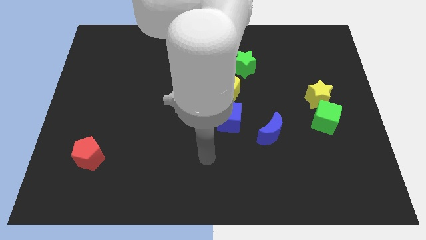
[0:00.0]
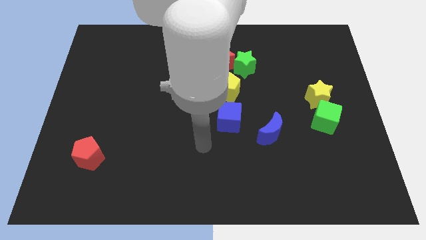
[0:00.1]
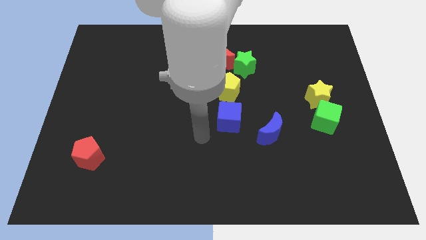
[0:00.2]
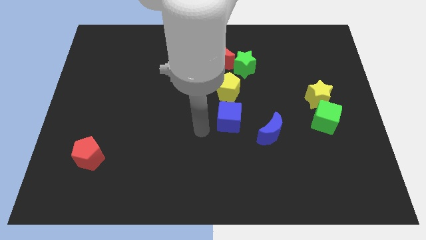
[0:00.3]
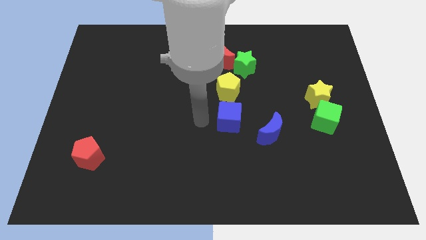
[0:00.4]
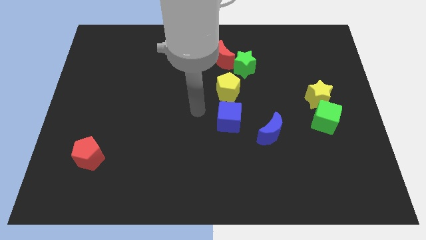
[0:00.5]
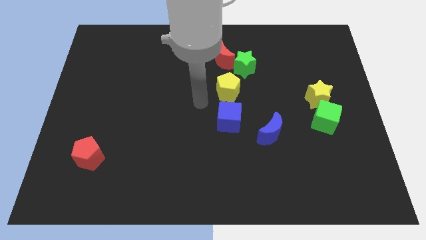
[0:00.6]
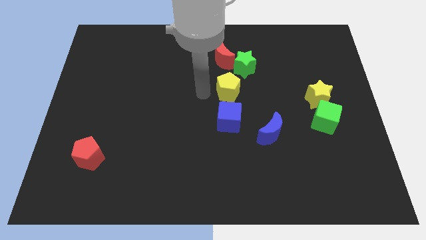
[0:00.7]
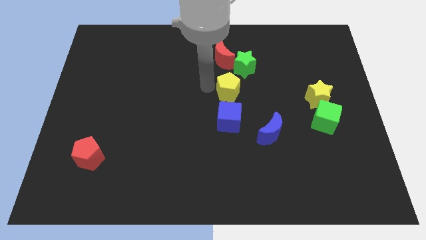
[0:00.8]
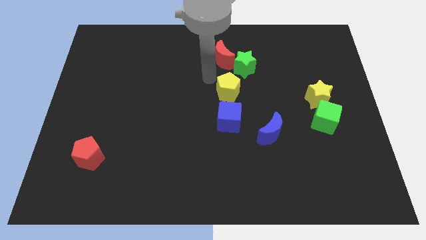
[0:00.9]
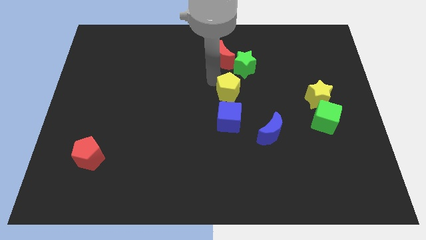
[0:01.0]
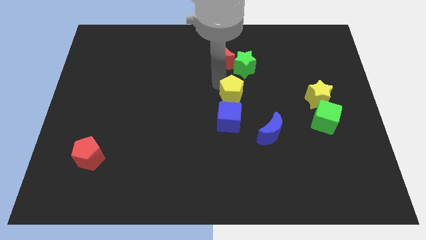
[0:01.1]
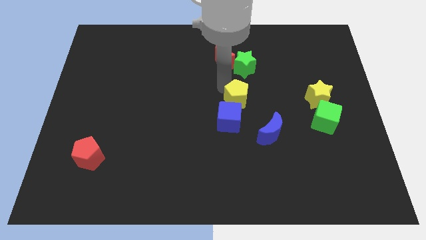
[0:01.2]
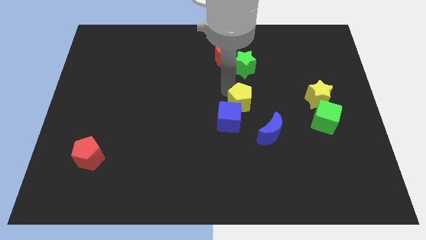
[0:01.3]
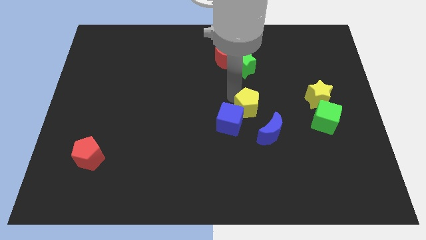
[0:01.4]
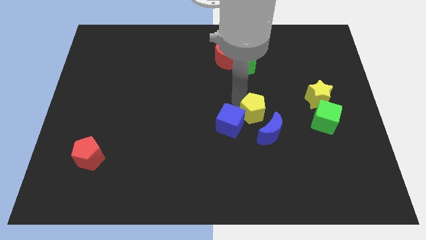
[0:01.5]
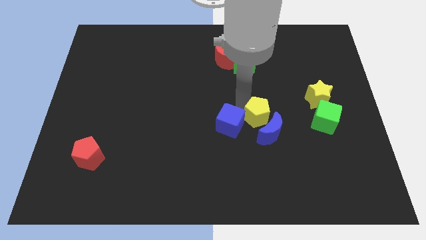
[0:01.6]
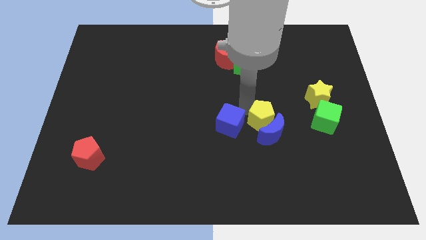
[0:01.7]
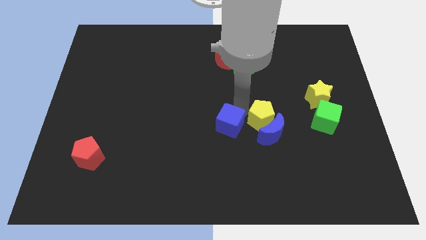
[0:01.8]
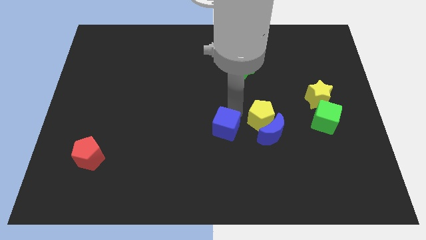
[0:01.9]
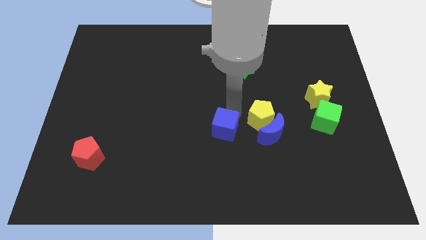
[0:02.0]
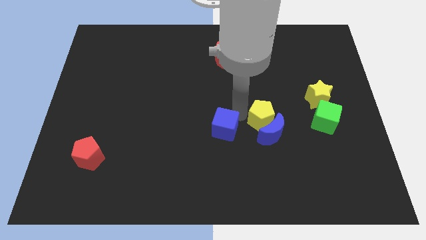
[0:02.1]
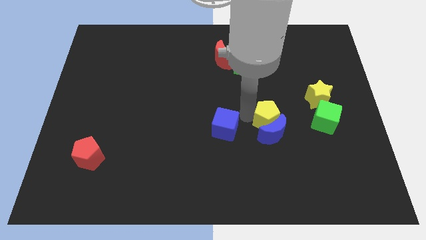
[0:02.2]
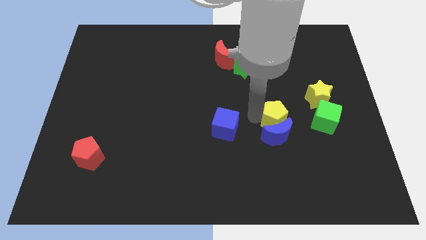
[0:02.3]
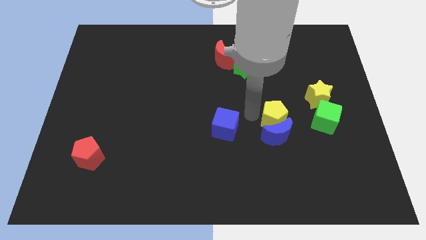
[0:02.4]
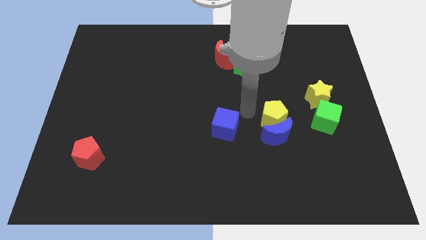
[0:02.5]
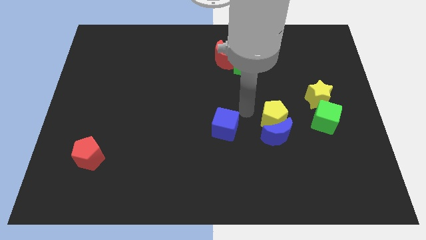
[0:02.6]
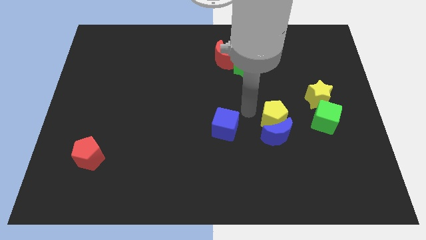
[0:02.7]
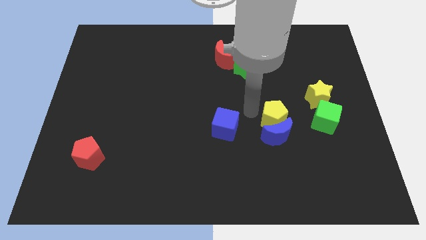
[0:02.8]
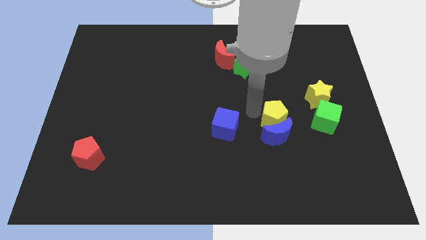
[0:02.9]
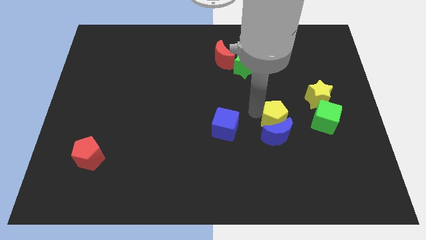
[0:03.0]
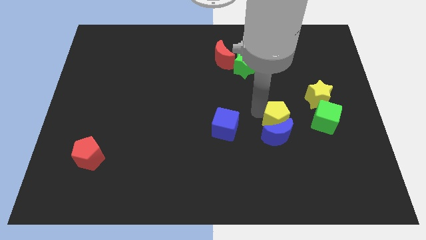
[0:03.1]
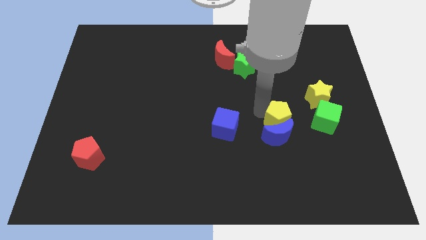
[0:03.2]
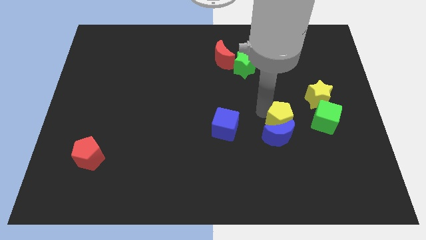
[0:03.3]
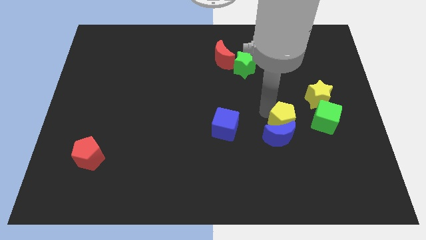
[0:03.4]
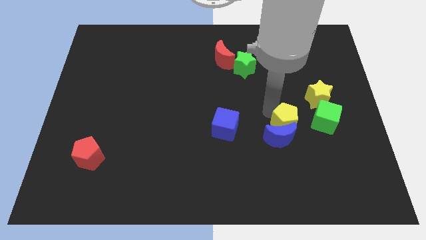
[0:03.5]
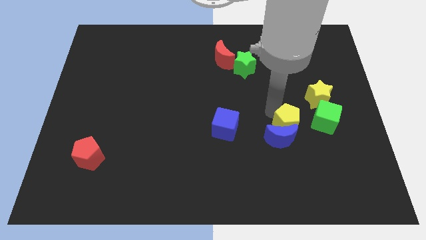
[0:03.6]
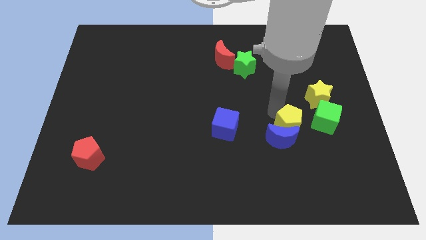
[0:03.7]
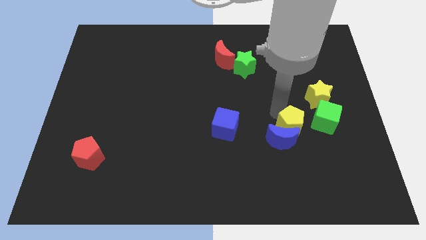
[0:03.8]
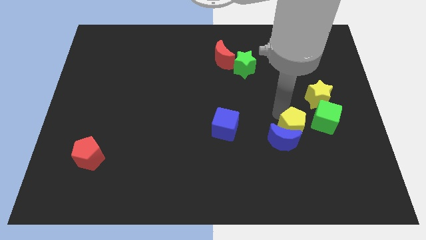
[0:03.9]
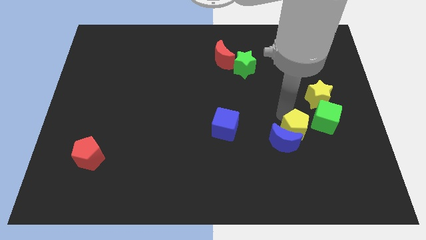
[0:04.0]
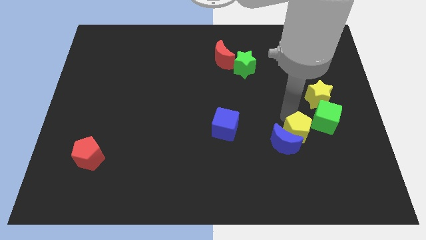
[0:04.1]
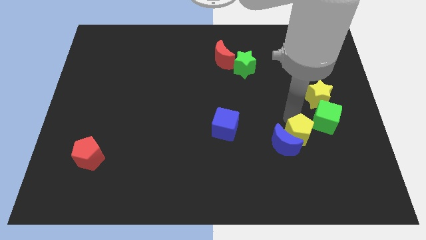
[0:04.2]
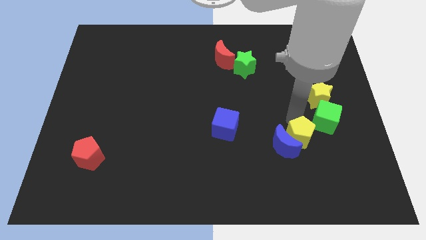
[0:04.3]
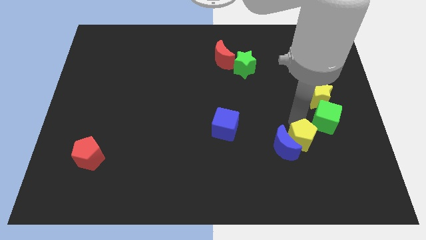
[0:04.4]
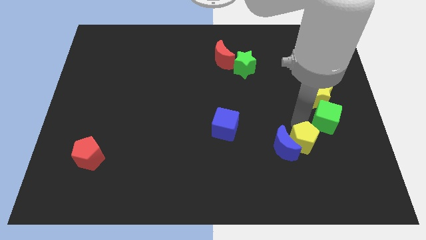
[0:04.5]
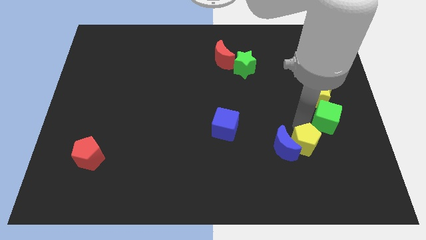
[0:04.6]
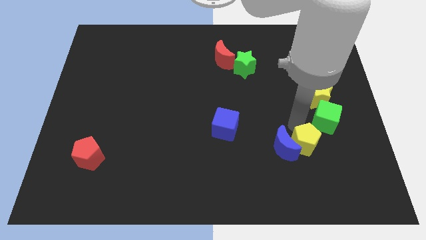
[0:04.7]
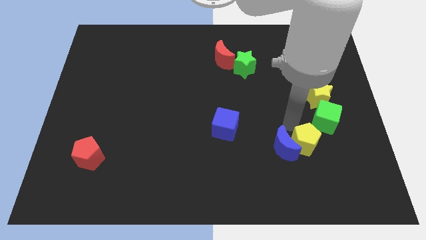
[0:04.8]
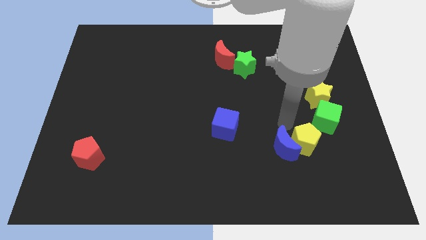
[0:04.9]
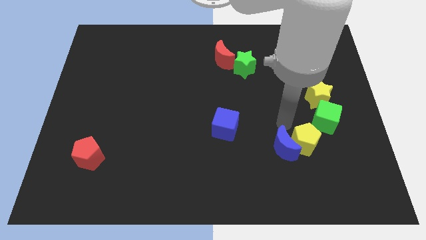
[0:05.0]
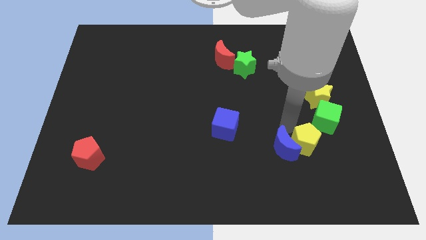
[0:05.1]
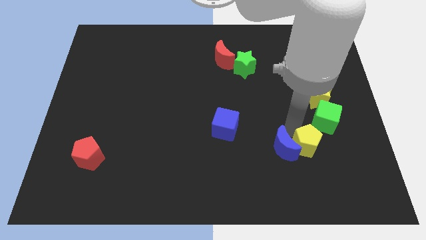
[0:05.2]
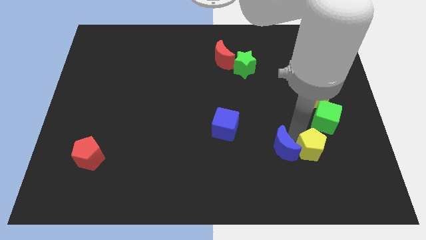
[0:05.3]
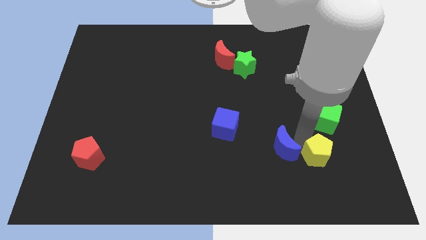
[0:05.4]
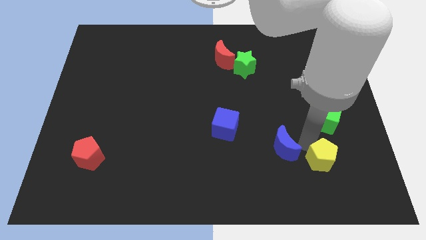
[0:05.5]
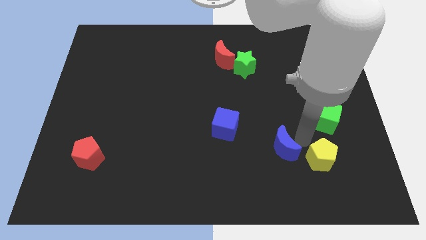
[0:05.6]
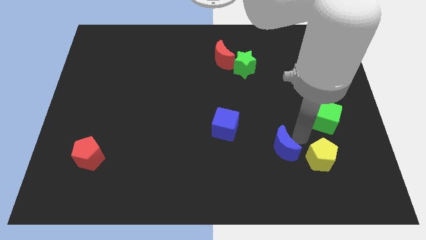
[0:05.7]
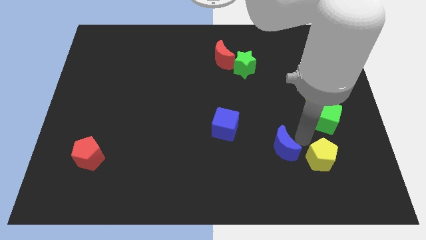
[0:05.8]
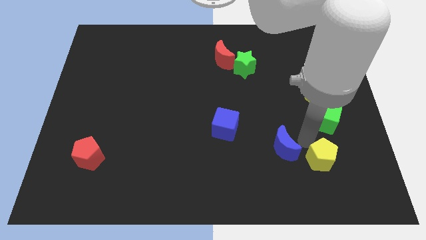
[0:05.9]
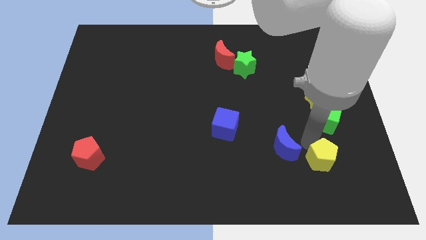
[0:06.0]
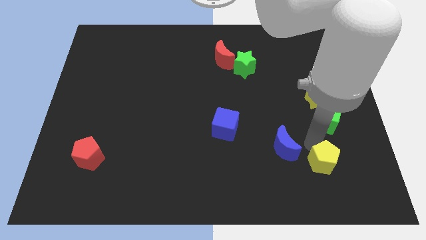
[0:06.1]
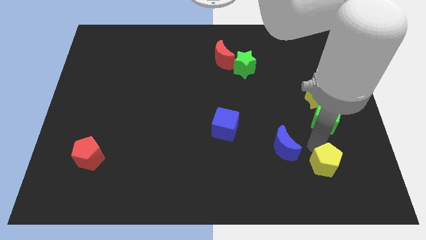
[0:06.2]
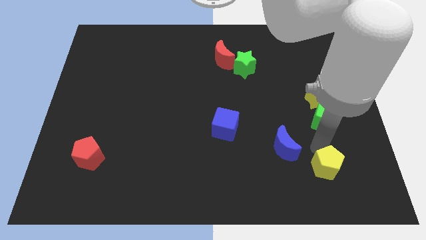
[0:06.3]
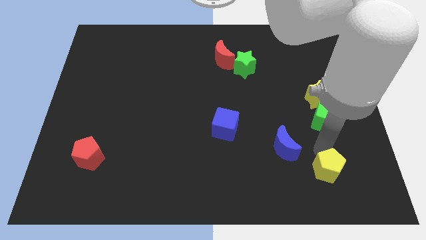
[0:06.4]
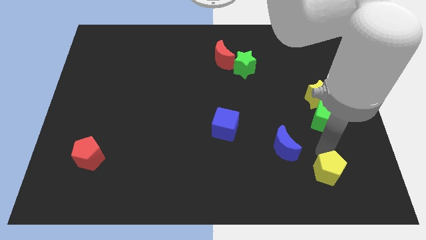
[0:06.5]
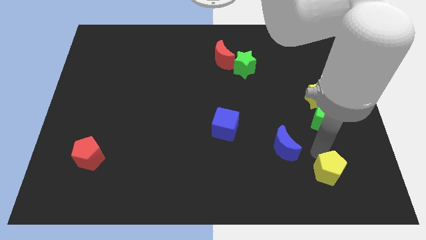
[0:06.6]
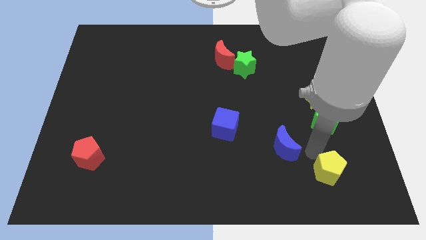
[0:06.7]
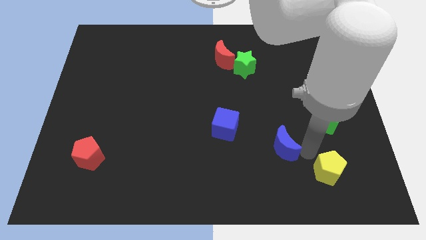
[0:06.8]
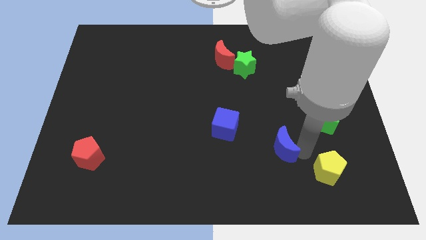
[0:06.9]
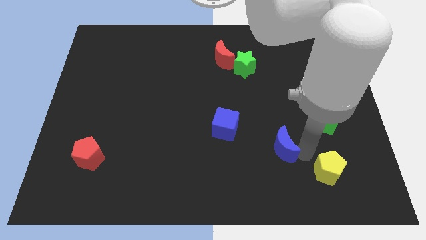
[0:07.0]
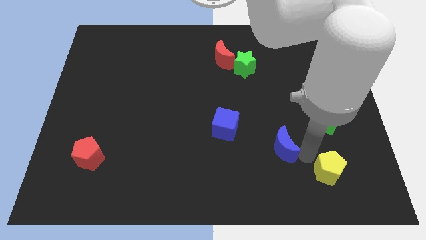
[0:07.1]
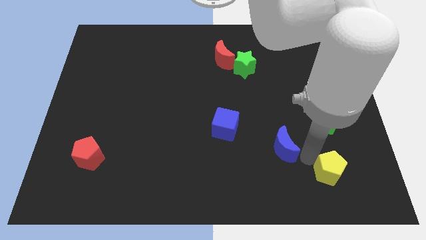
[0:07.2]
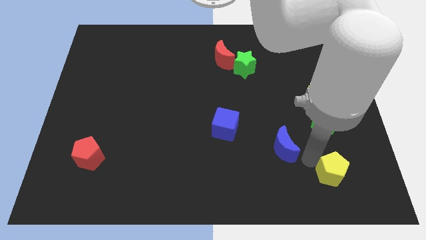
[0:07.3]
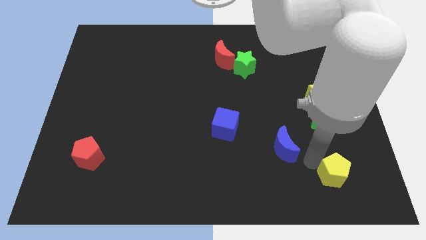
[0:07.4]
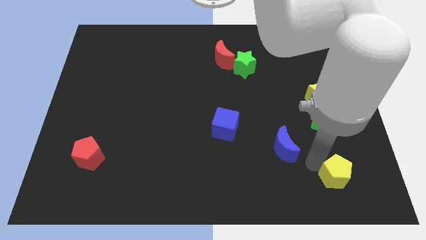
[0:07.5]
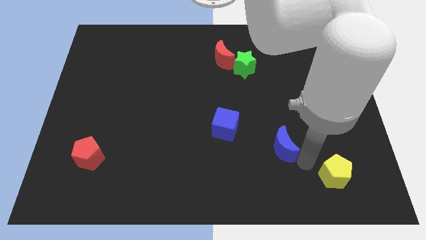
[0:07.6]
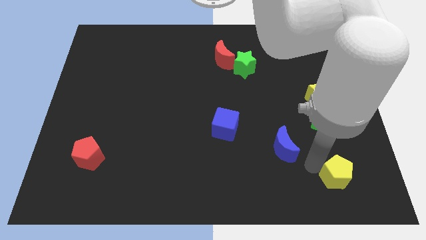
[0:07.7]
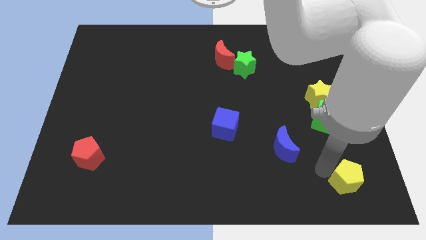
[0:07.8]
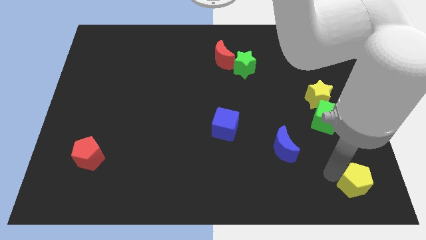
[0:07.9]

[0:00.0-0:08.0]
move the yellow pentagon to the bottom right of the board
